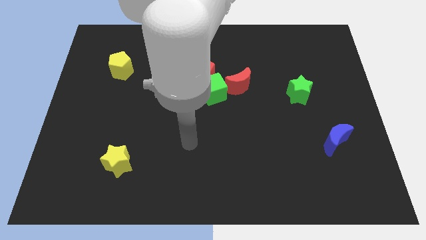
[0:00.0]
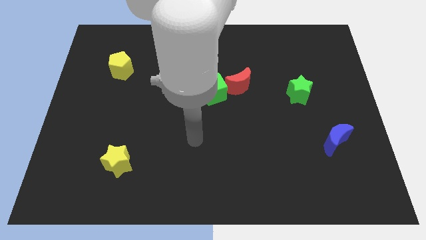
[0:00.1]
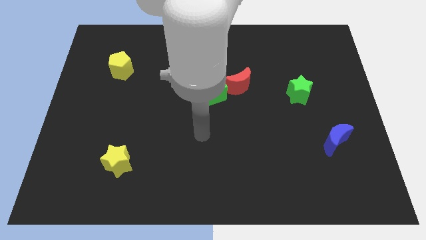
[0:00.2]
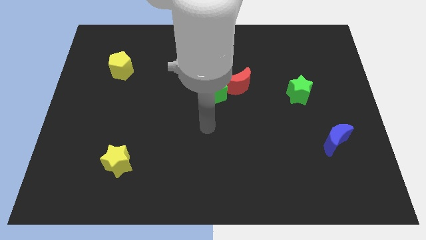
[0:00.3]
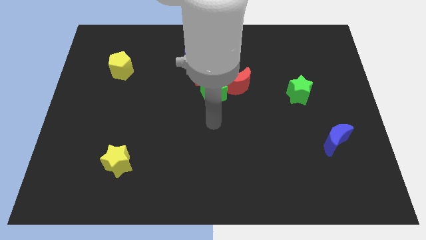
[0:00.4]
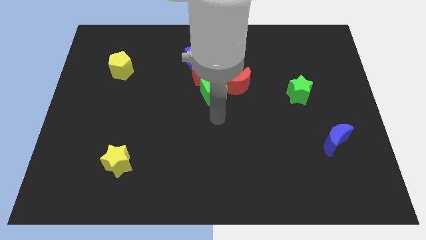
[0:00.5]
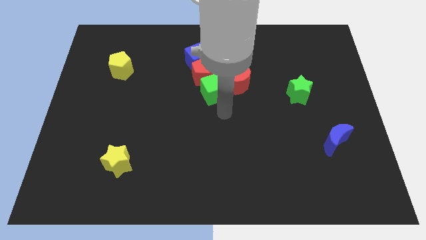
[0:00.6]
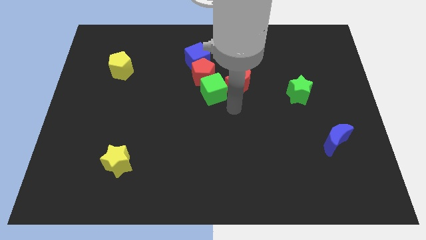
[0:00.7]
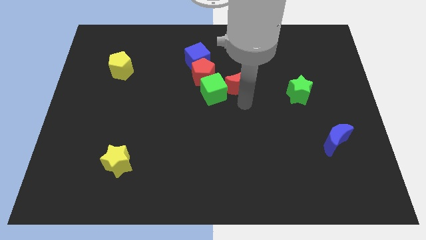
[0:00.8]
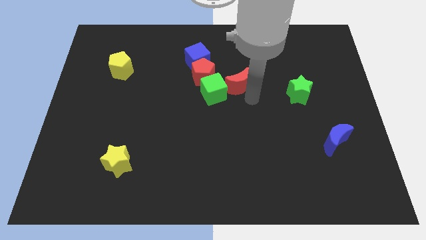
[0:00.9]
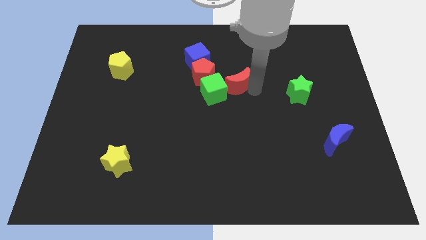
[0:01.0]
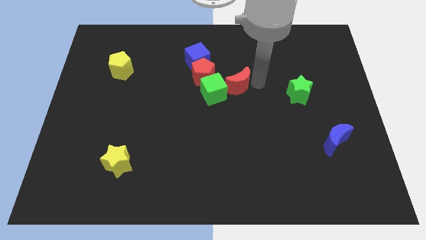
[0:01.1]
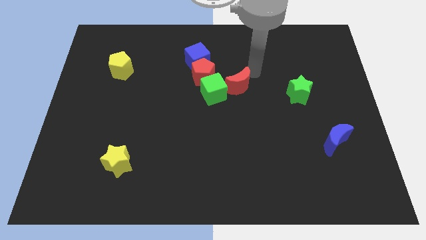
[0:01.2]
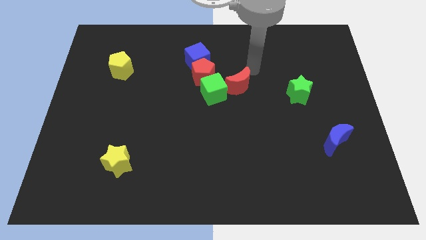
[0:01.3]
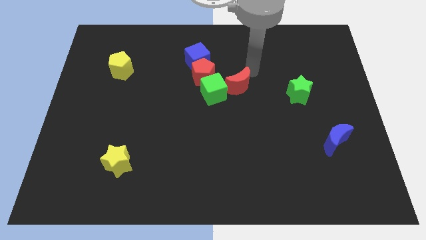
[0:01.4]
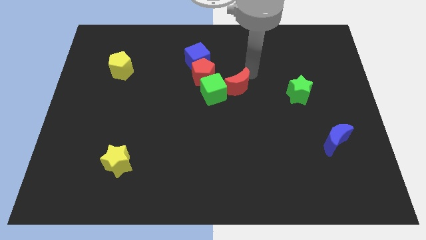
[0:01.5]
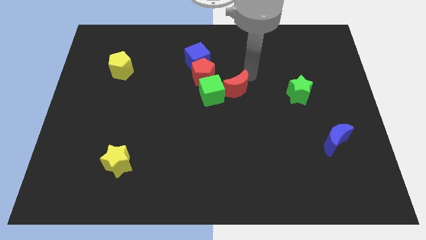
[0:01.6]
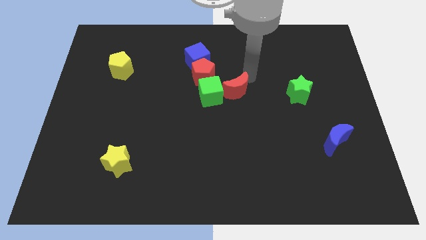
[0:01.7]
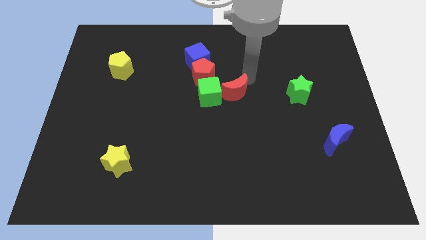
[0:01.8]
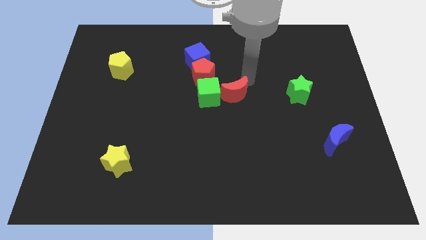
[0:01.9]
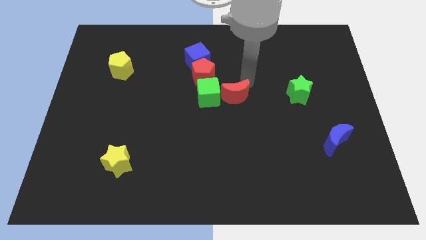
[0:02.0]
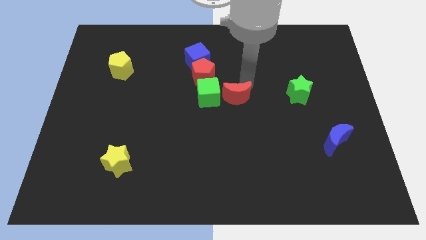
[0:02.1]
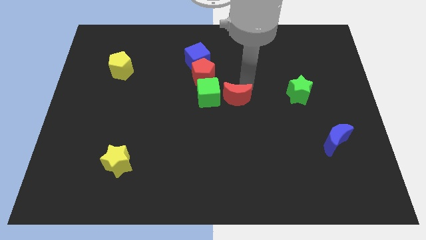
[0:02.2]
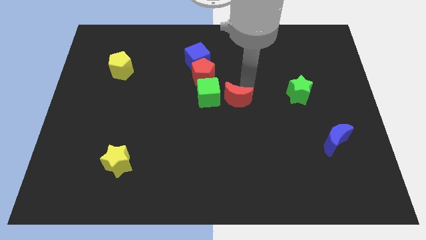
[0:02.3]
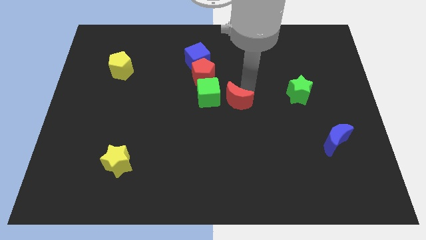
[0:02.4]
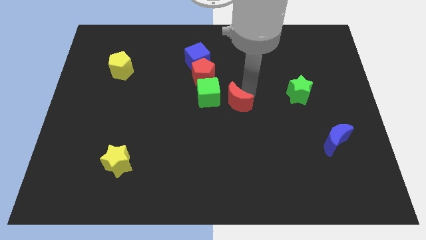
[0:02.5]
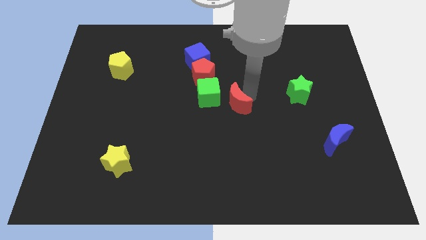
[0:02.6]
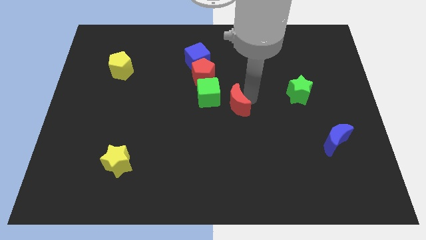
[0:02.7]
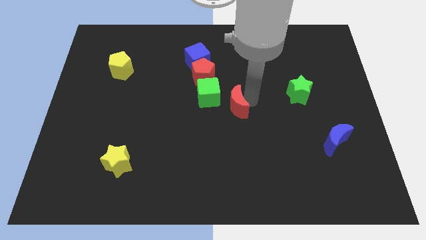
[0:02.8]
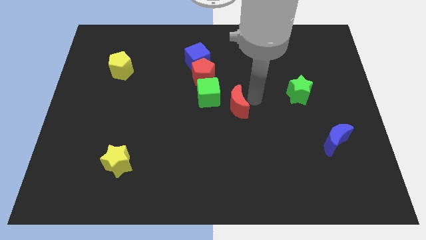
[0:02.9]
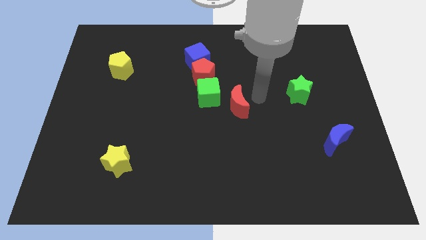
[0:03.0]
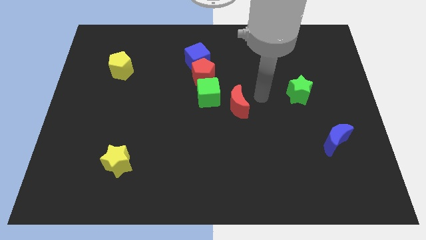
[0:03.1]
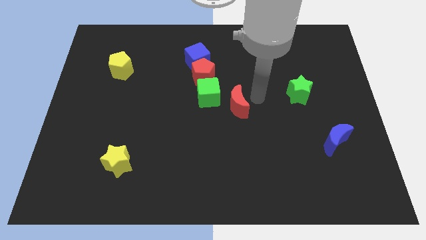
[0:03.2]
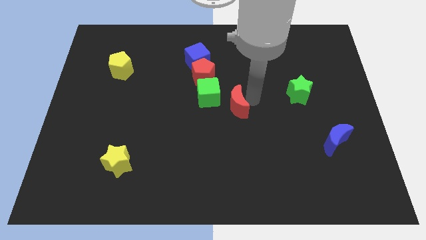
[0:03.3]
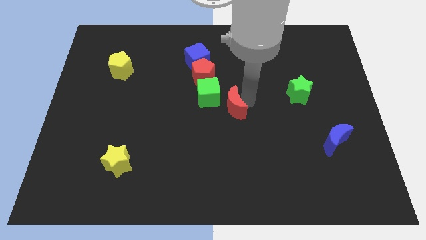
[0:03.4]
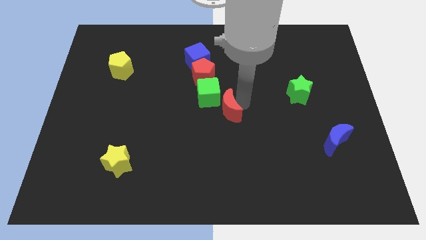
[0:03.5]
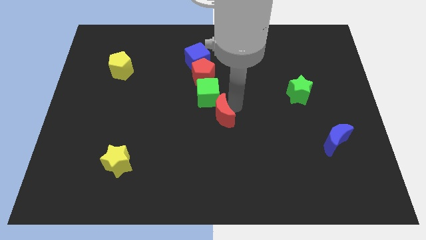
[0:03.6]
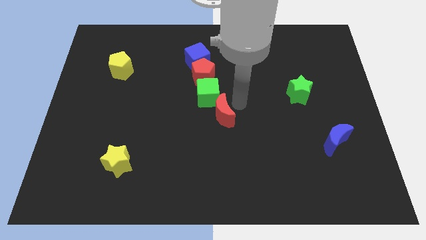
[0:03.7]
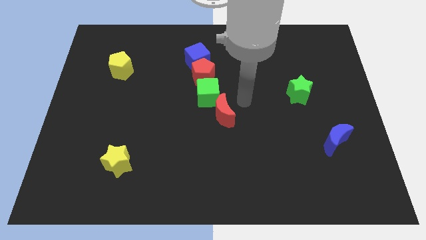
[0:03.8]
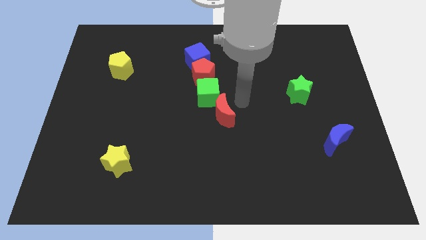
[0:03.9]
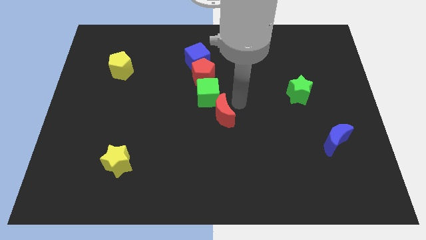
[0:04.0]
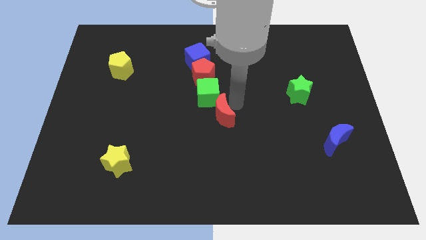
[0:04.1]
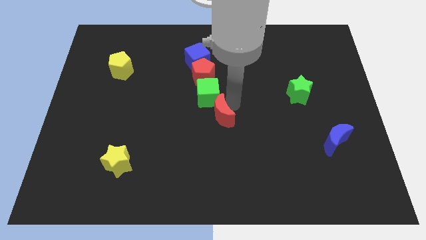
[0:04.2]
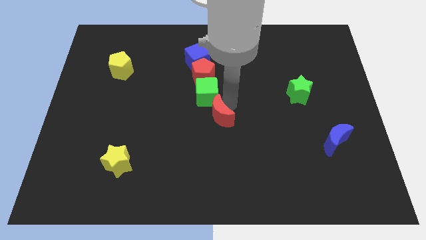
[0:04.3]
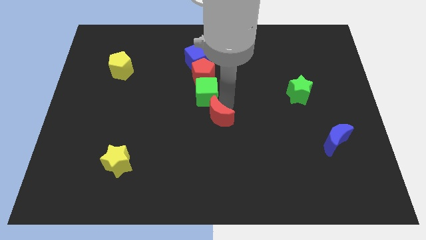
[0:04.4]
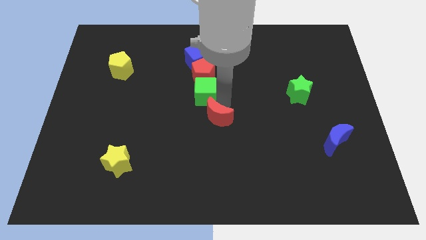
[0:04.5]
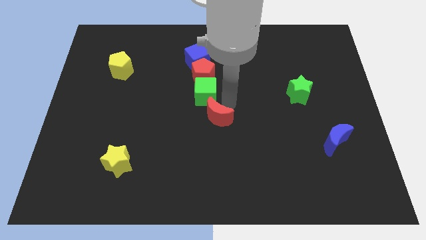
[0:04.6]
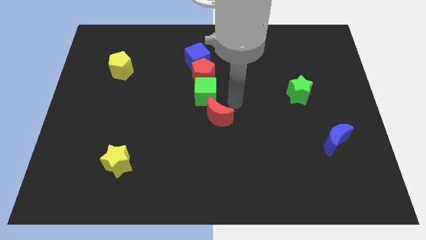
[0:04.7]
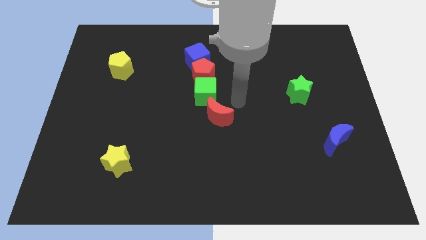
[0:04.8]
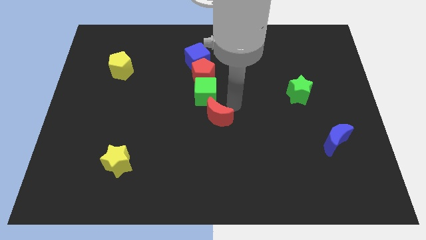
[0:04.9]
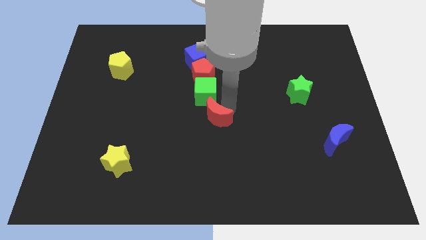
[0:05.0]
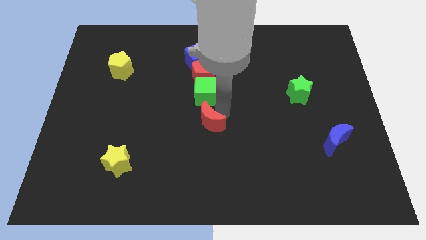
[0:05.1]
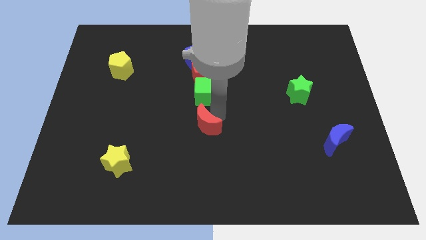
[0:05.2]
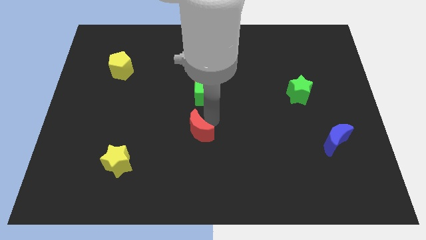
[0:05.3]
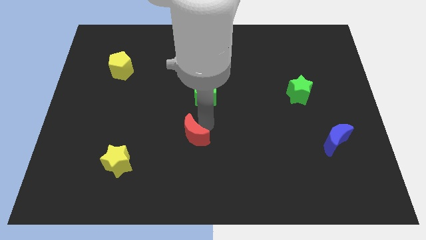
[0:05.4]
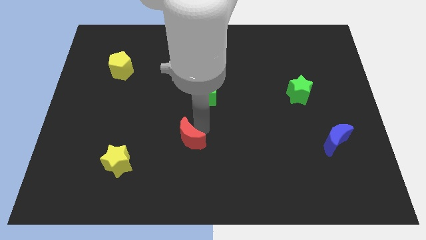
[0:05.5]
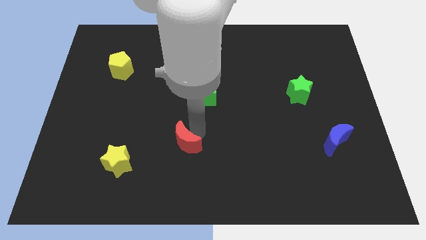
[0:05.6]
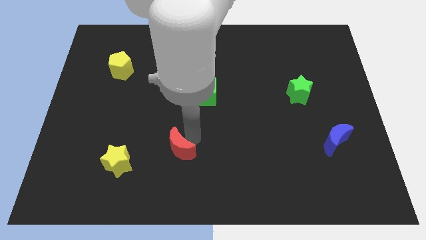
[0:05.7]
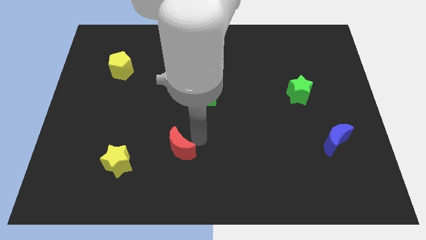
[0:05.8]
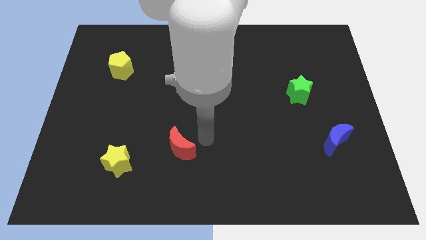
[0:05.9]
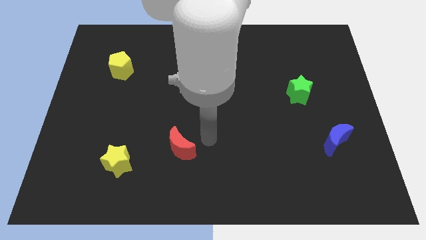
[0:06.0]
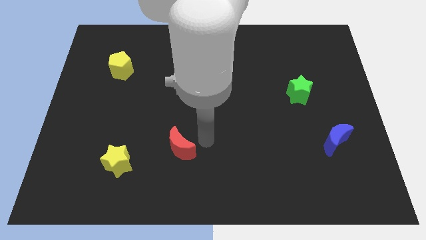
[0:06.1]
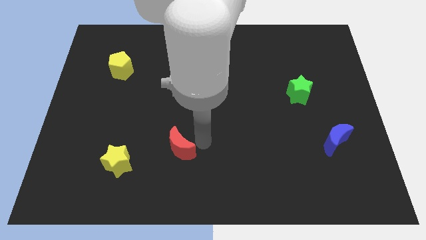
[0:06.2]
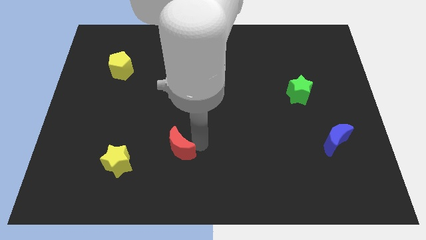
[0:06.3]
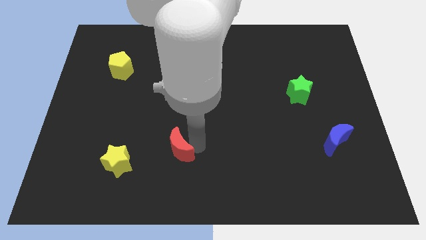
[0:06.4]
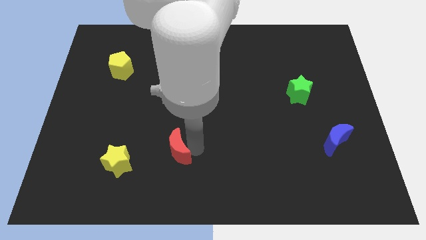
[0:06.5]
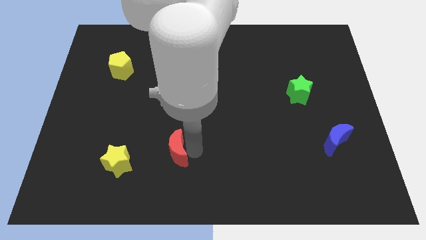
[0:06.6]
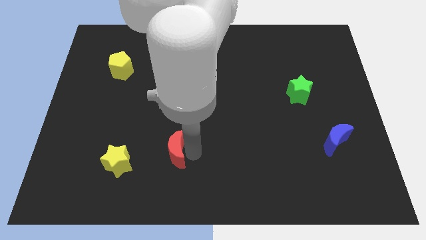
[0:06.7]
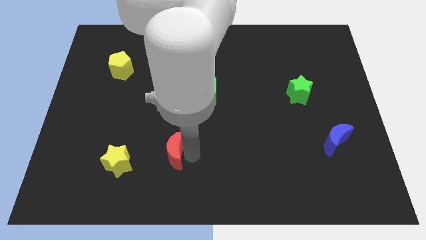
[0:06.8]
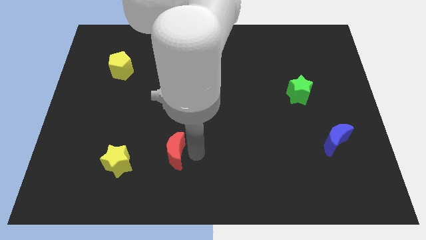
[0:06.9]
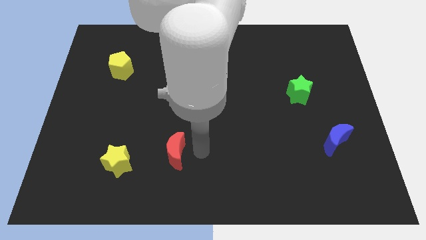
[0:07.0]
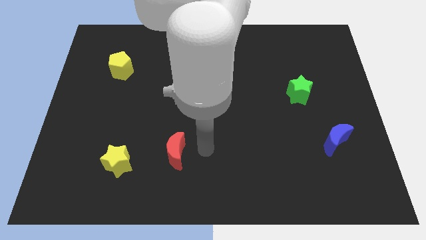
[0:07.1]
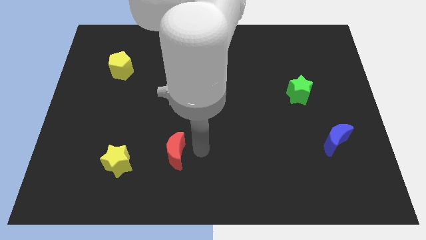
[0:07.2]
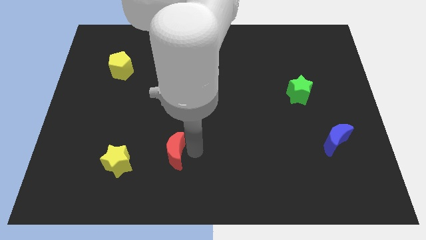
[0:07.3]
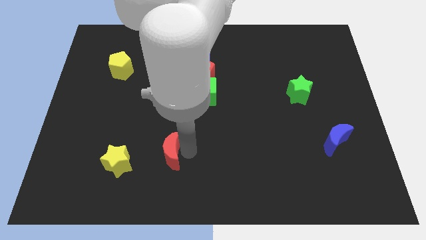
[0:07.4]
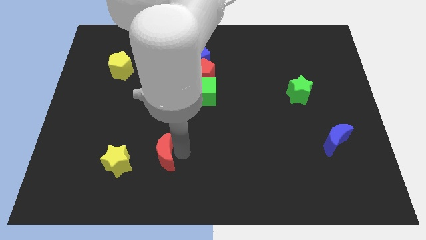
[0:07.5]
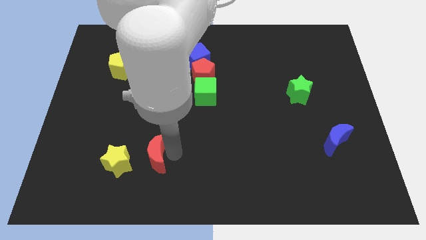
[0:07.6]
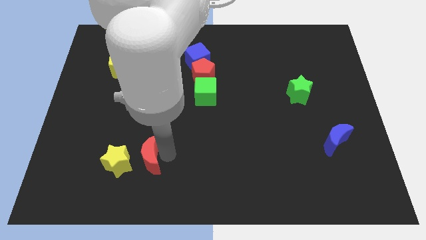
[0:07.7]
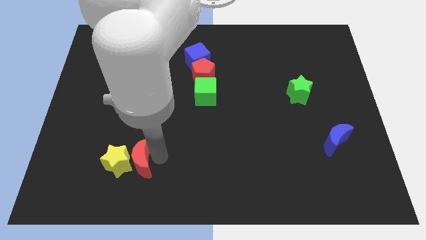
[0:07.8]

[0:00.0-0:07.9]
put the red moon towards the yellow star
